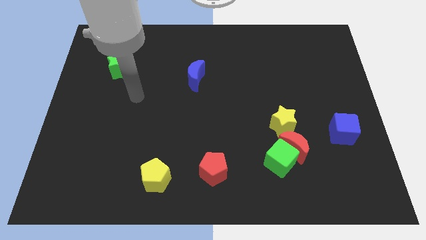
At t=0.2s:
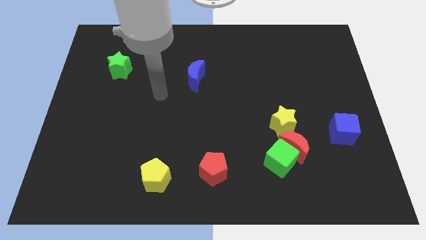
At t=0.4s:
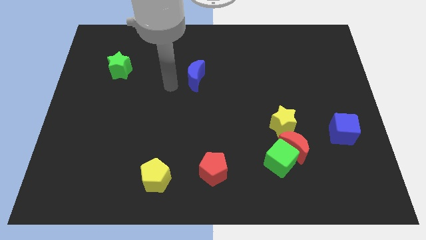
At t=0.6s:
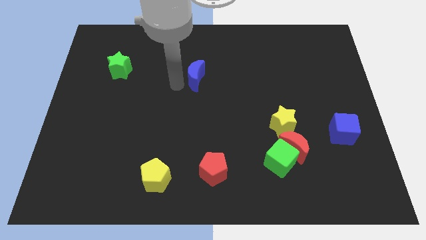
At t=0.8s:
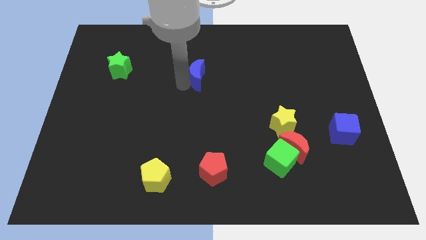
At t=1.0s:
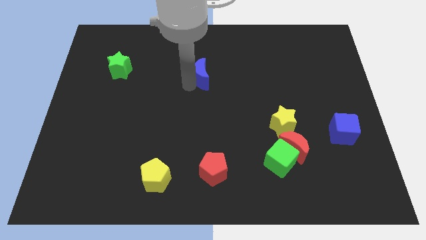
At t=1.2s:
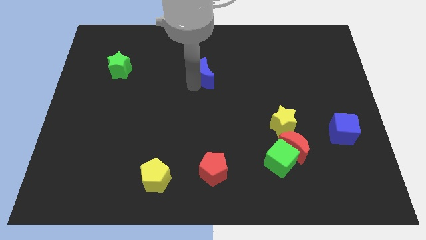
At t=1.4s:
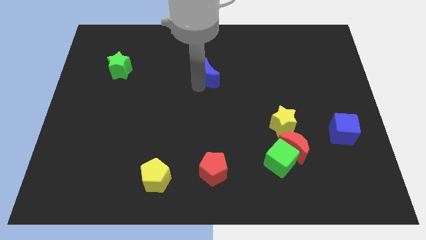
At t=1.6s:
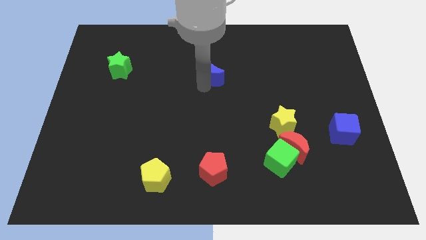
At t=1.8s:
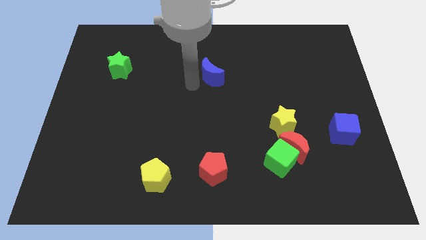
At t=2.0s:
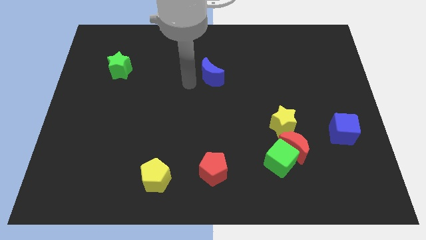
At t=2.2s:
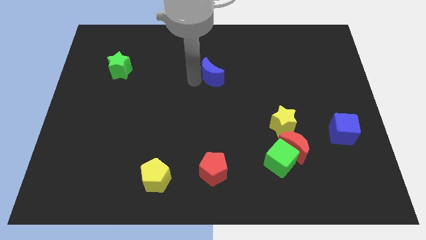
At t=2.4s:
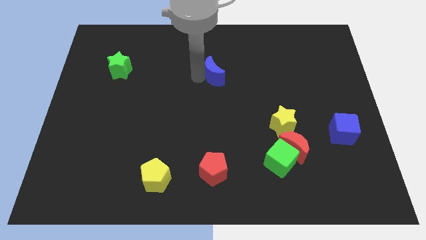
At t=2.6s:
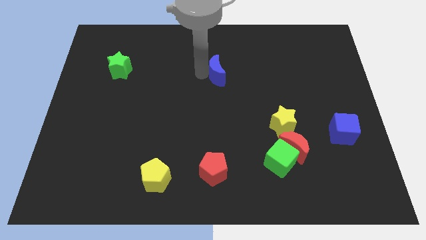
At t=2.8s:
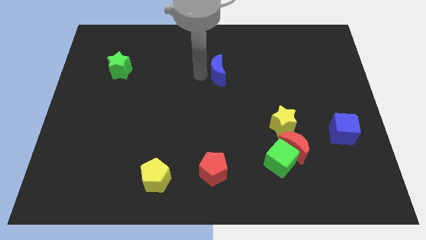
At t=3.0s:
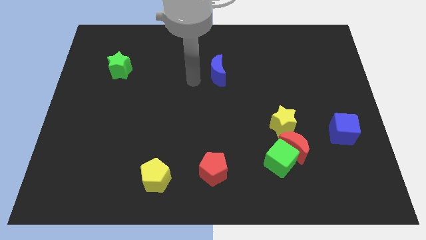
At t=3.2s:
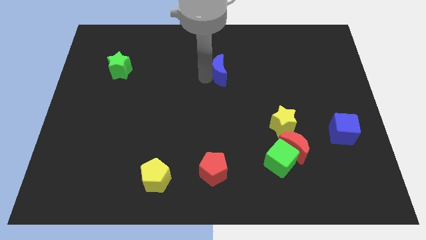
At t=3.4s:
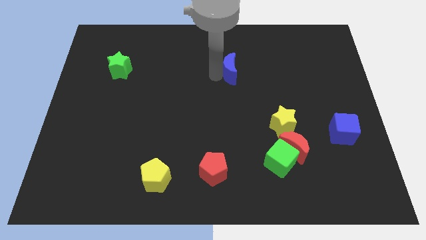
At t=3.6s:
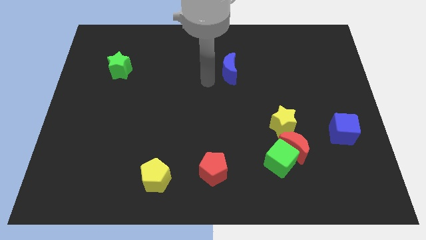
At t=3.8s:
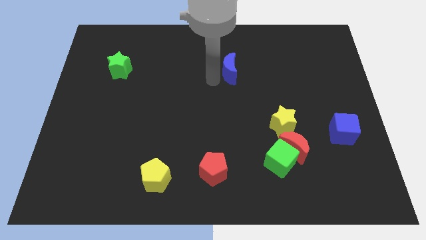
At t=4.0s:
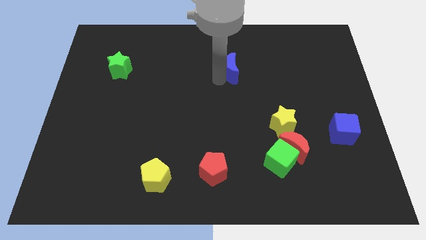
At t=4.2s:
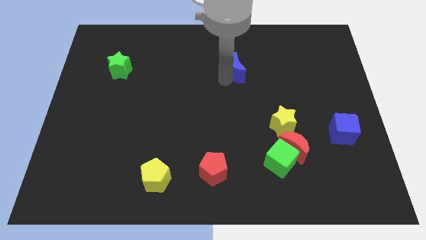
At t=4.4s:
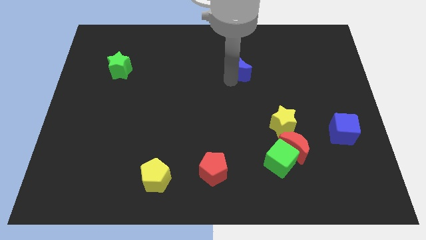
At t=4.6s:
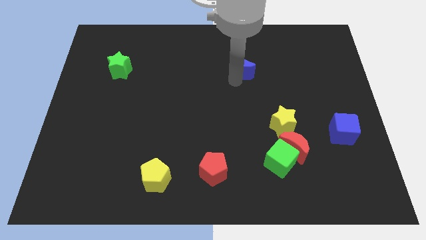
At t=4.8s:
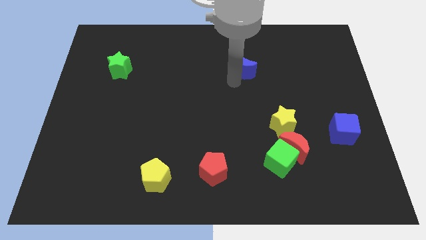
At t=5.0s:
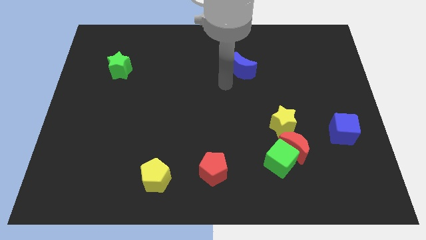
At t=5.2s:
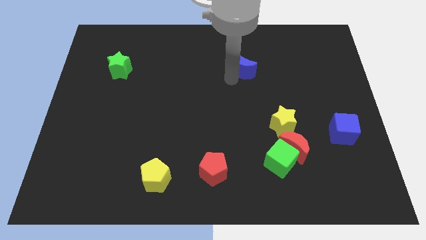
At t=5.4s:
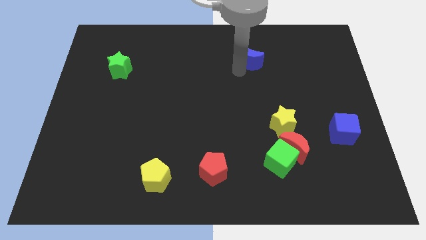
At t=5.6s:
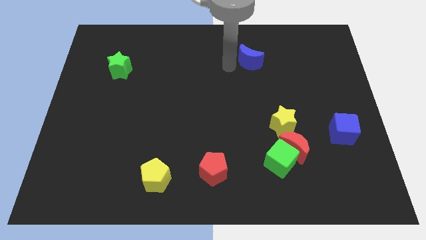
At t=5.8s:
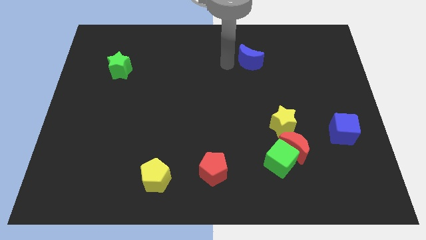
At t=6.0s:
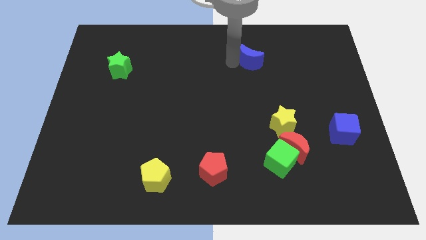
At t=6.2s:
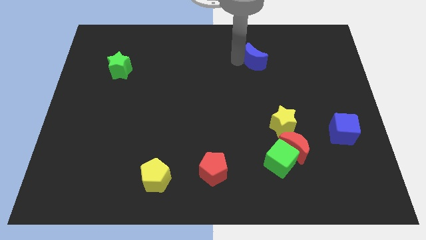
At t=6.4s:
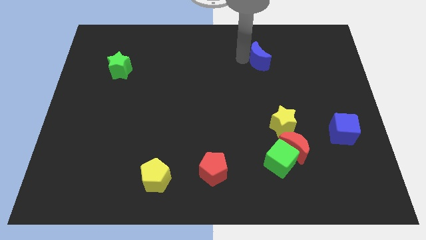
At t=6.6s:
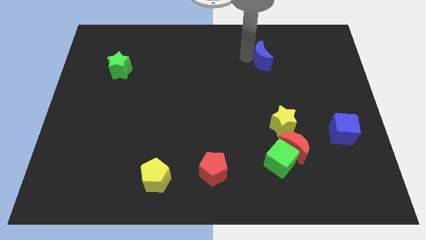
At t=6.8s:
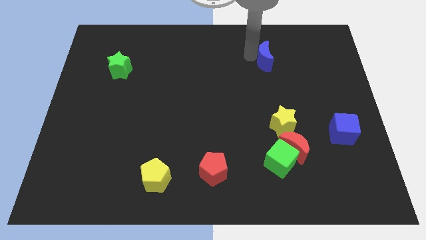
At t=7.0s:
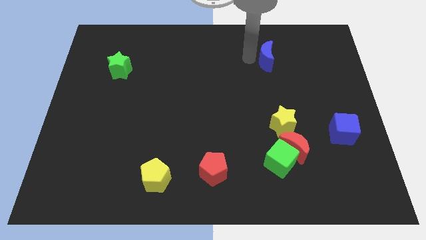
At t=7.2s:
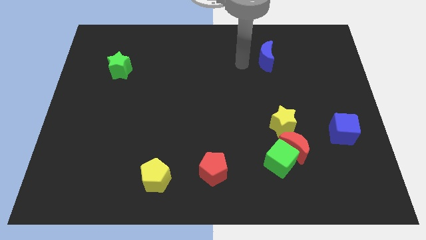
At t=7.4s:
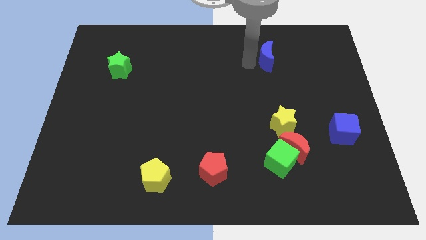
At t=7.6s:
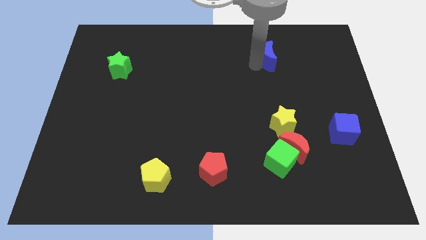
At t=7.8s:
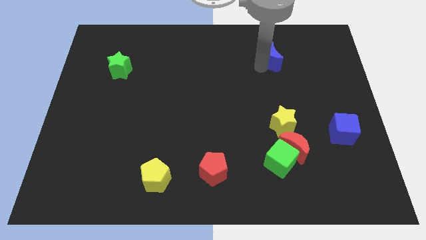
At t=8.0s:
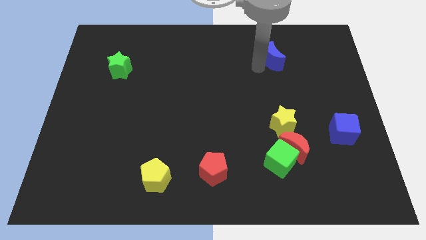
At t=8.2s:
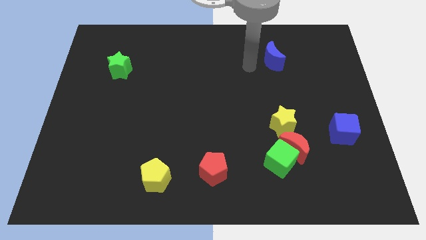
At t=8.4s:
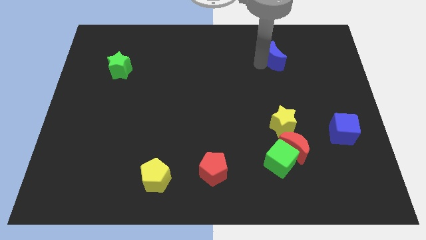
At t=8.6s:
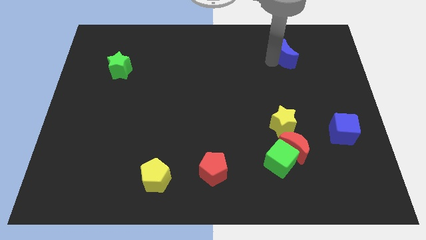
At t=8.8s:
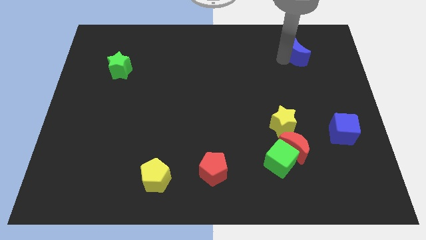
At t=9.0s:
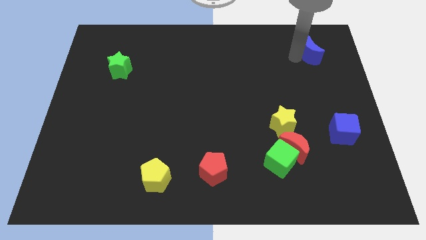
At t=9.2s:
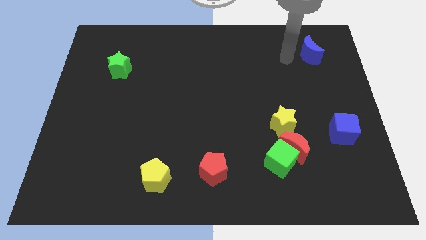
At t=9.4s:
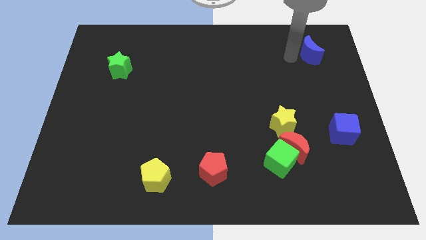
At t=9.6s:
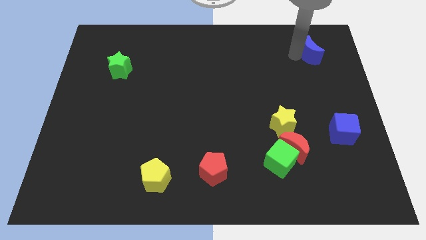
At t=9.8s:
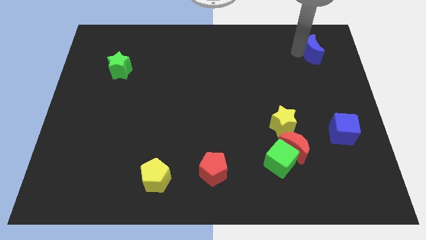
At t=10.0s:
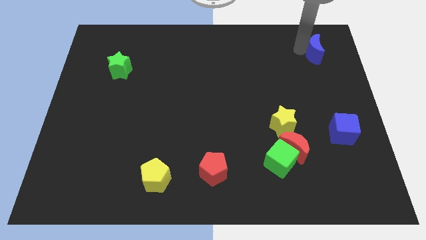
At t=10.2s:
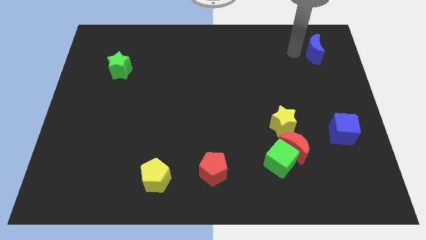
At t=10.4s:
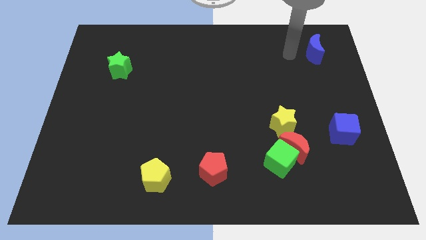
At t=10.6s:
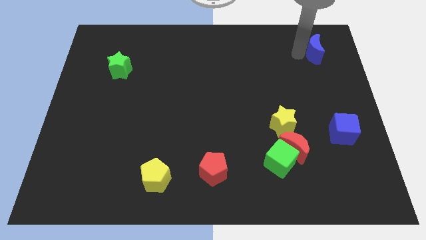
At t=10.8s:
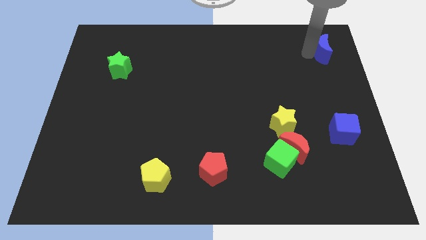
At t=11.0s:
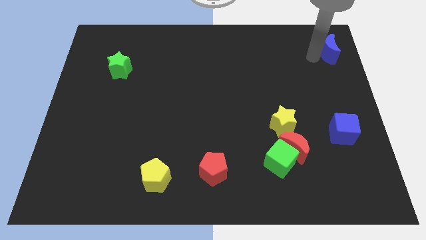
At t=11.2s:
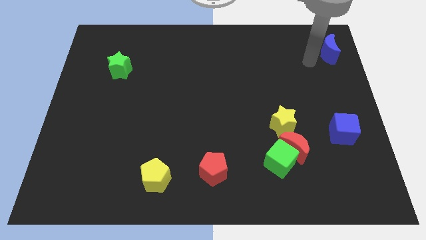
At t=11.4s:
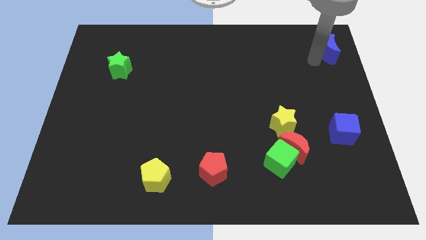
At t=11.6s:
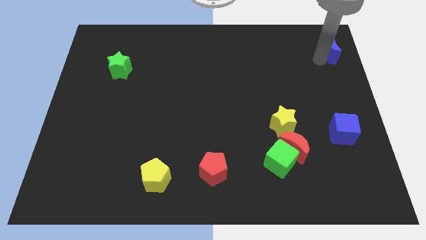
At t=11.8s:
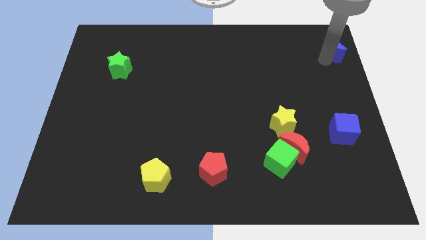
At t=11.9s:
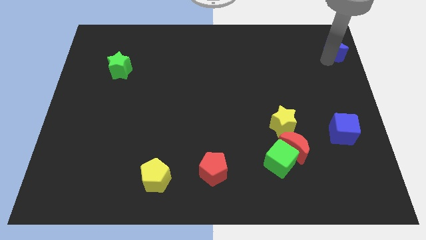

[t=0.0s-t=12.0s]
push the blue moon to the top right
